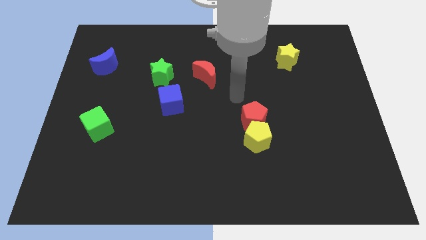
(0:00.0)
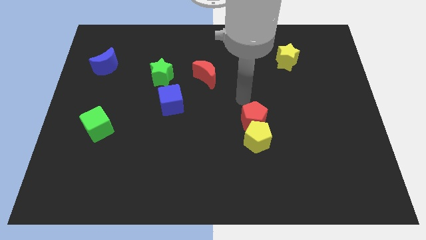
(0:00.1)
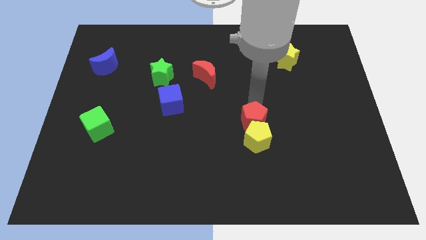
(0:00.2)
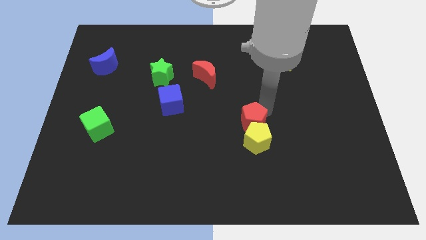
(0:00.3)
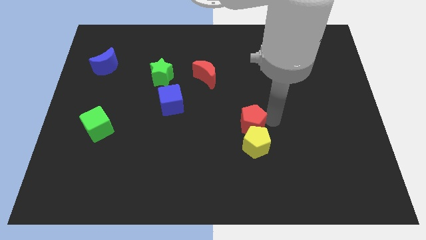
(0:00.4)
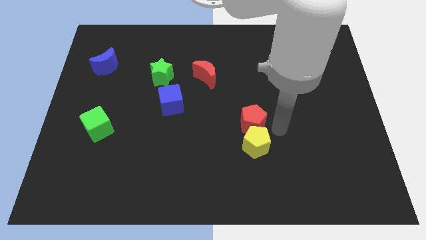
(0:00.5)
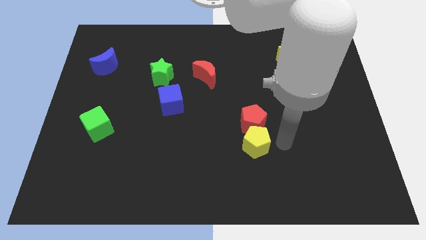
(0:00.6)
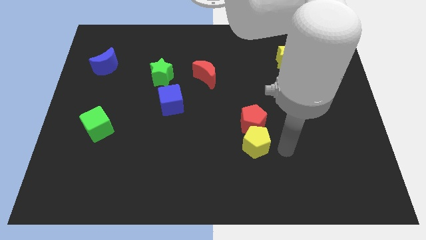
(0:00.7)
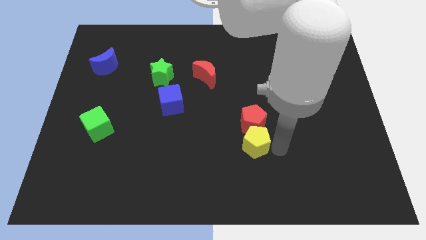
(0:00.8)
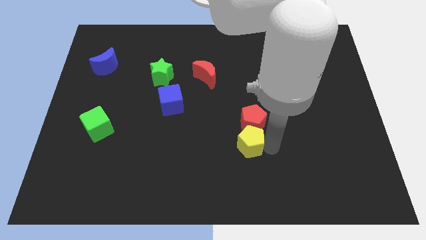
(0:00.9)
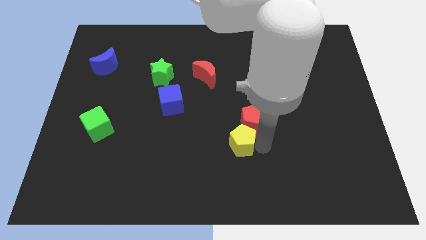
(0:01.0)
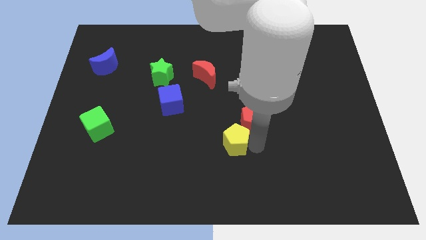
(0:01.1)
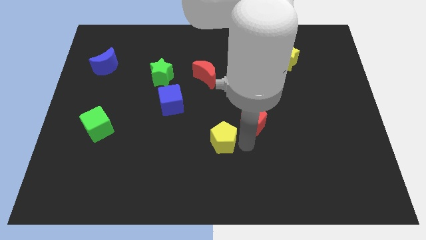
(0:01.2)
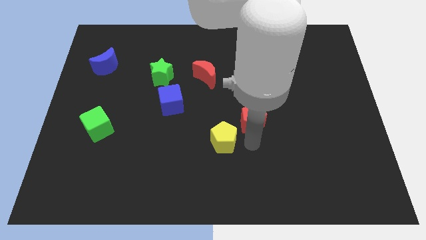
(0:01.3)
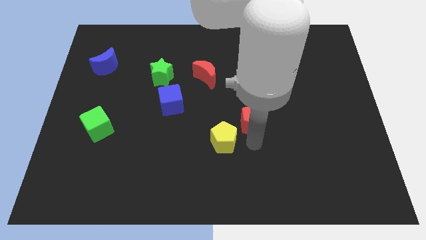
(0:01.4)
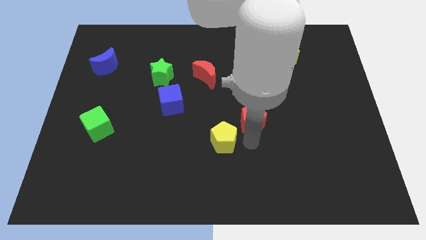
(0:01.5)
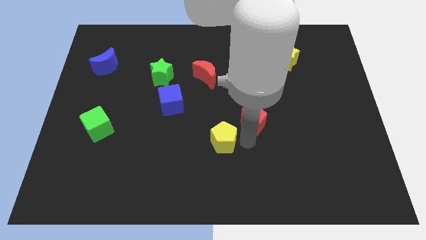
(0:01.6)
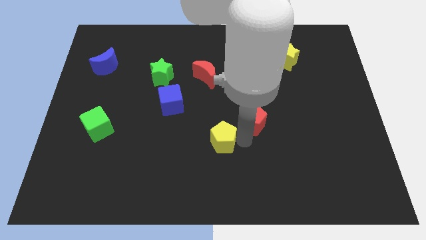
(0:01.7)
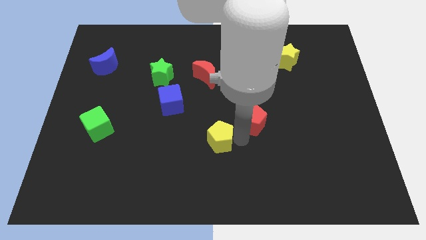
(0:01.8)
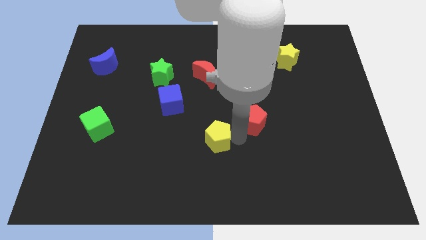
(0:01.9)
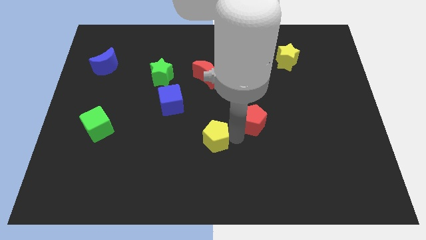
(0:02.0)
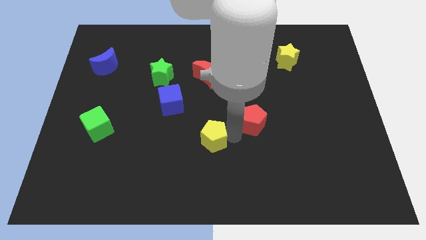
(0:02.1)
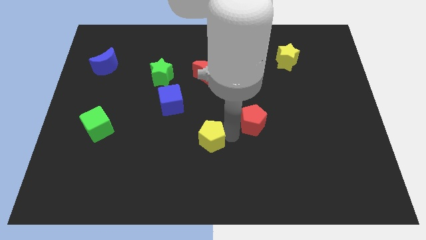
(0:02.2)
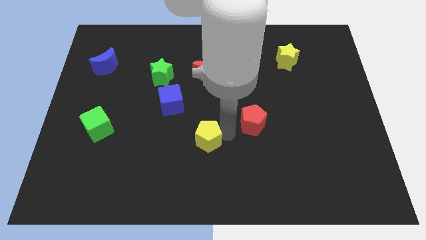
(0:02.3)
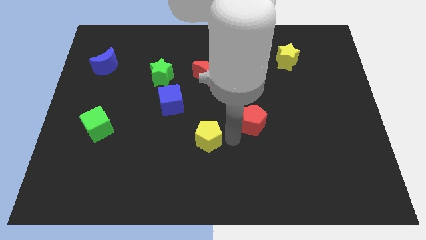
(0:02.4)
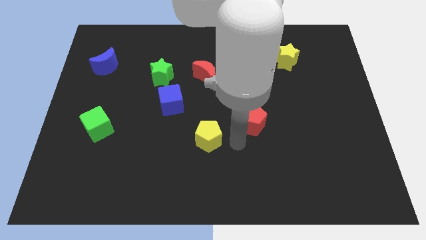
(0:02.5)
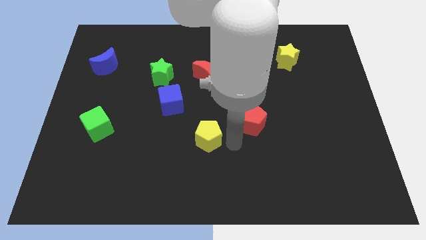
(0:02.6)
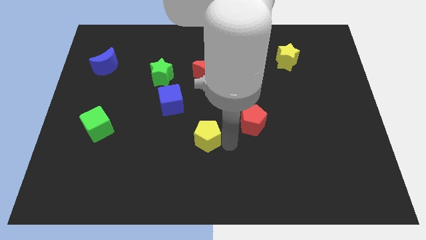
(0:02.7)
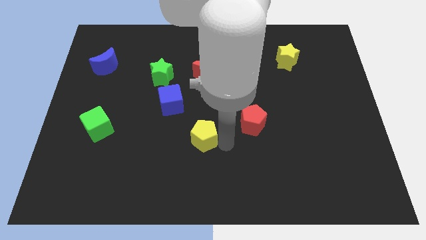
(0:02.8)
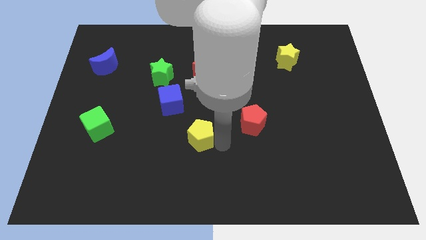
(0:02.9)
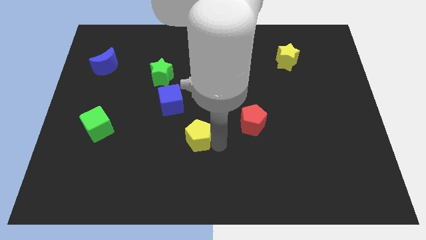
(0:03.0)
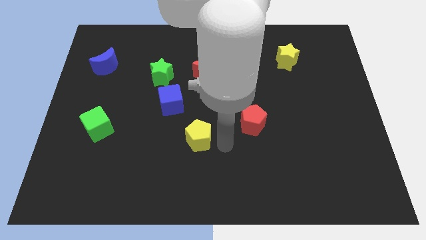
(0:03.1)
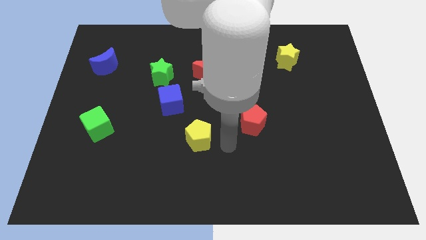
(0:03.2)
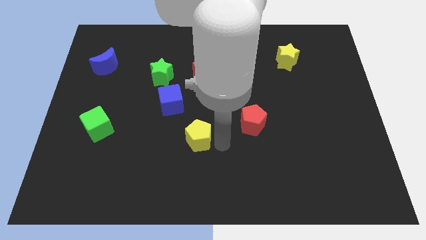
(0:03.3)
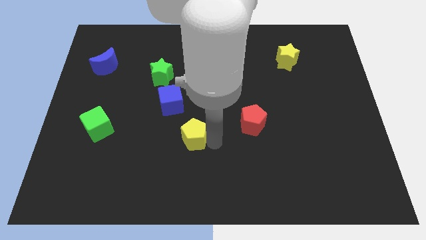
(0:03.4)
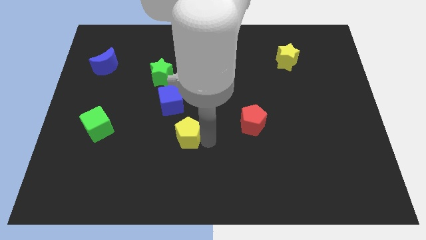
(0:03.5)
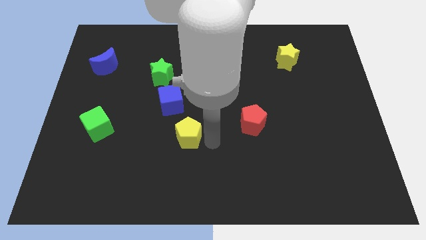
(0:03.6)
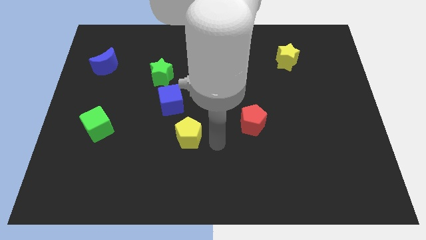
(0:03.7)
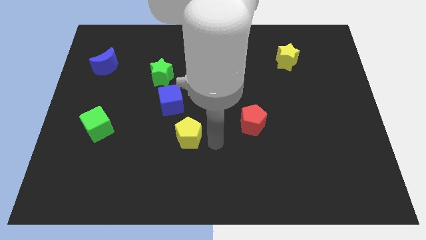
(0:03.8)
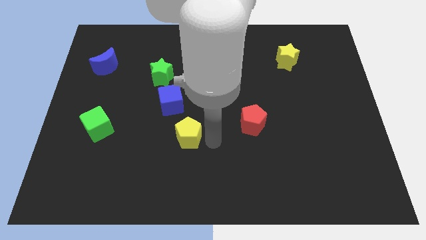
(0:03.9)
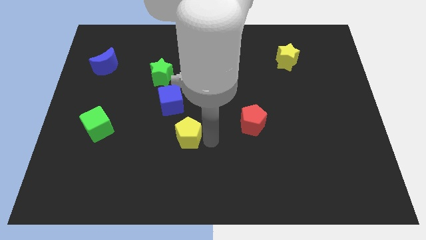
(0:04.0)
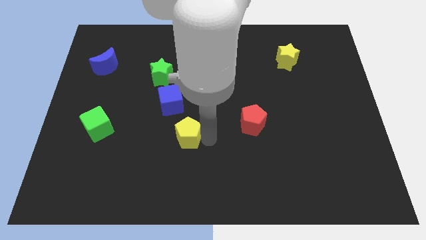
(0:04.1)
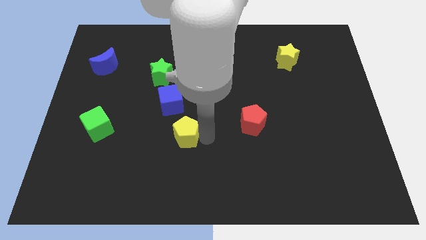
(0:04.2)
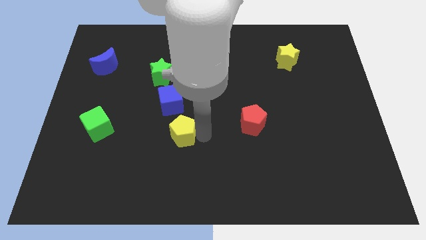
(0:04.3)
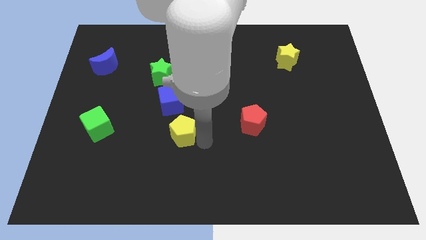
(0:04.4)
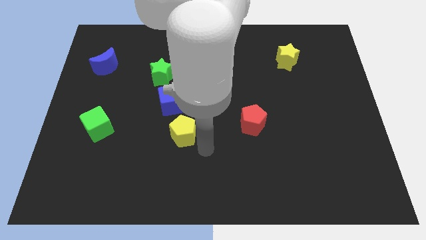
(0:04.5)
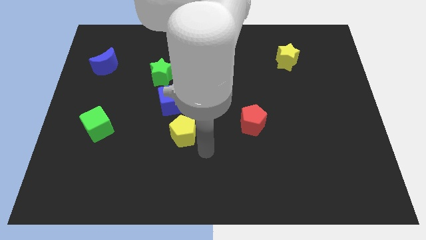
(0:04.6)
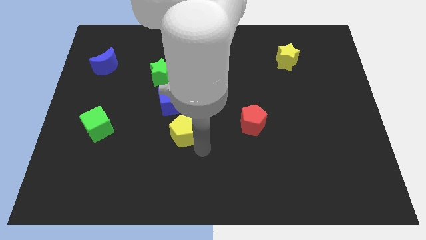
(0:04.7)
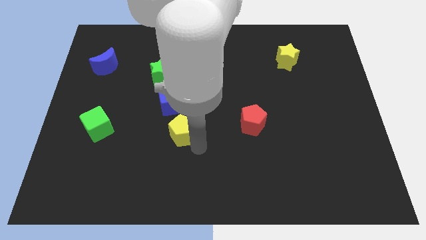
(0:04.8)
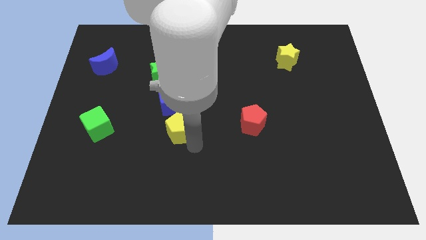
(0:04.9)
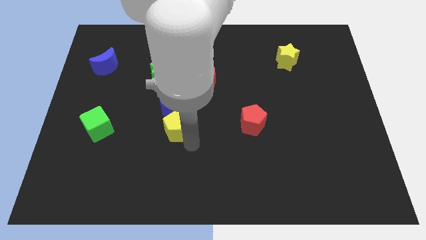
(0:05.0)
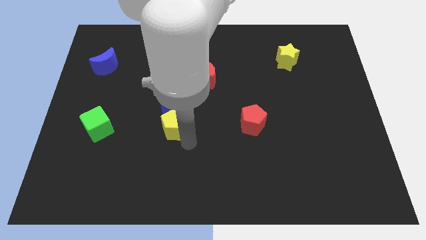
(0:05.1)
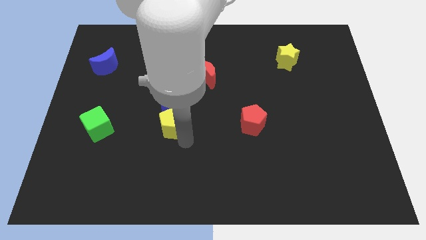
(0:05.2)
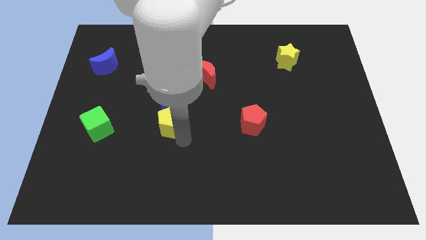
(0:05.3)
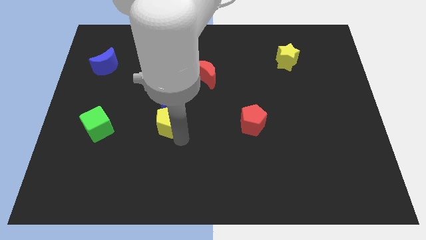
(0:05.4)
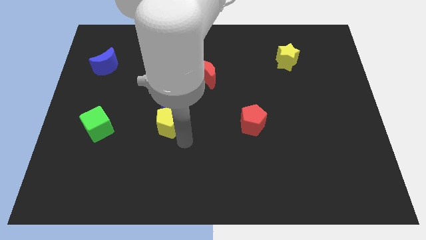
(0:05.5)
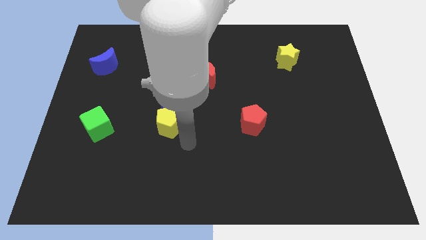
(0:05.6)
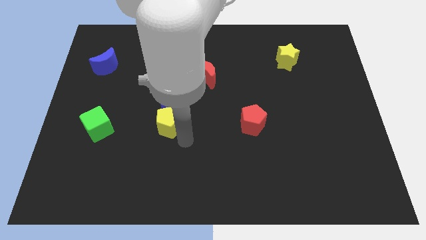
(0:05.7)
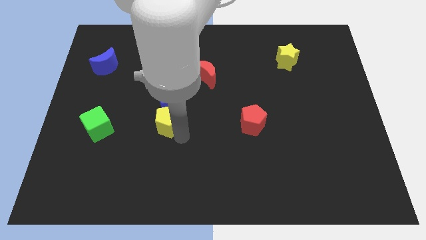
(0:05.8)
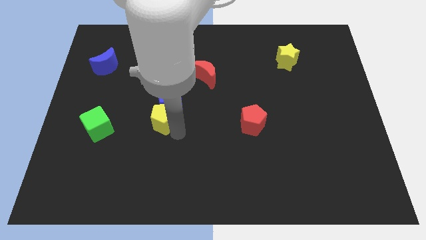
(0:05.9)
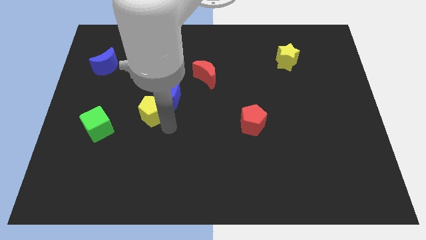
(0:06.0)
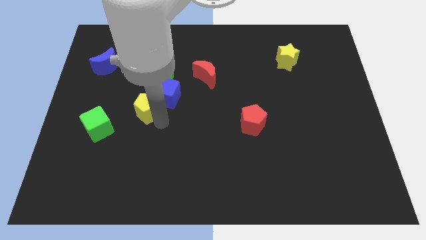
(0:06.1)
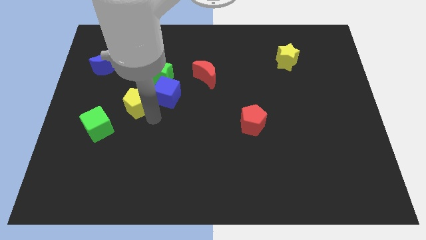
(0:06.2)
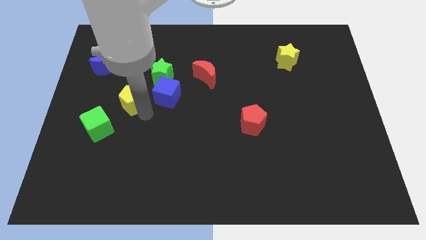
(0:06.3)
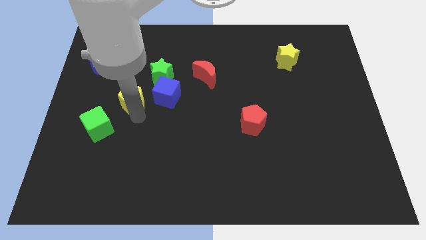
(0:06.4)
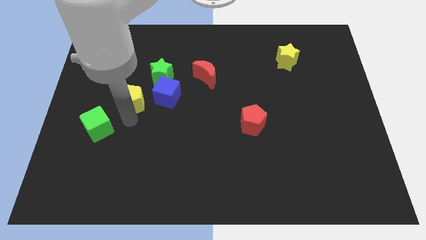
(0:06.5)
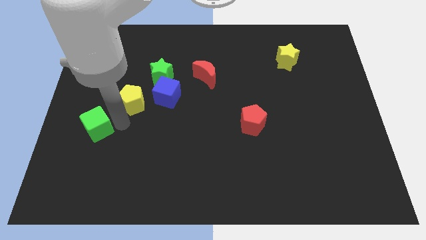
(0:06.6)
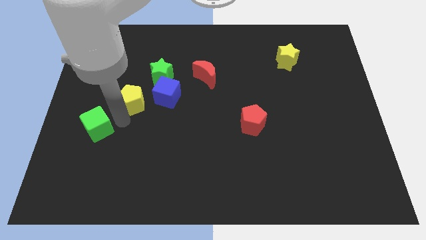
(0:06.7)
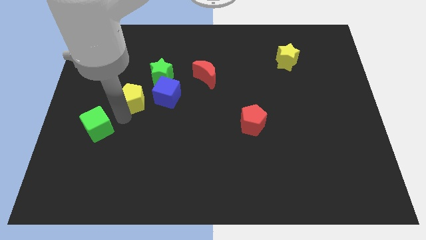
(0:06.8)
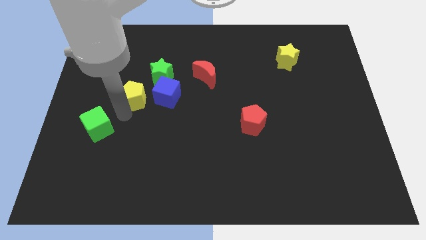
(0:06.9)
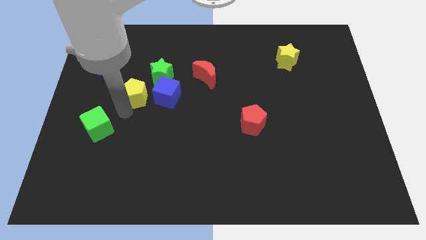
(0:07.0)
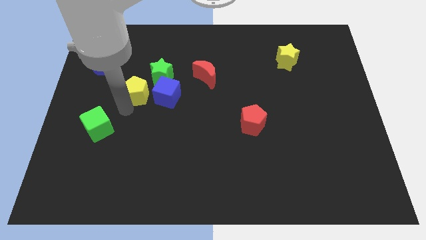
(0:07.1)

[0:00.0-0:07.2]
put the yellow pentagon to the top left side of the blue cube
